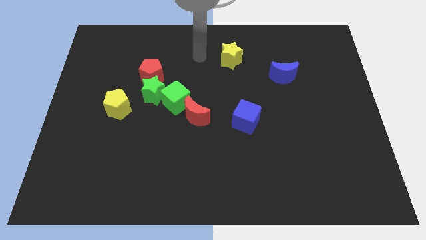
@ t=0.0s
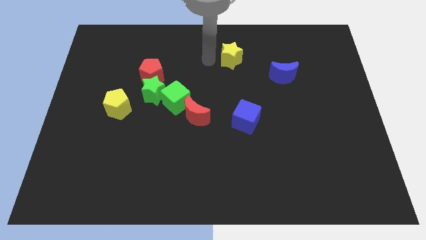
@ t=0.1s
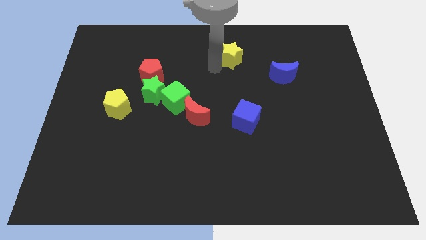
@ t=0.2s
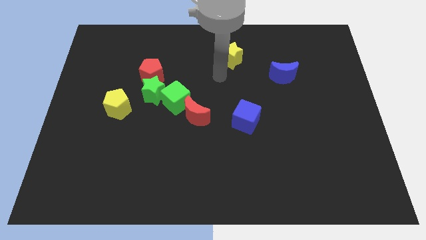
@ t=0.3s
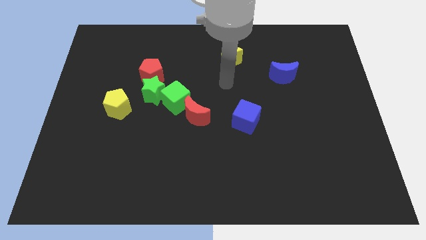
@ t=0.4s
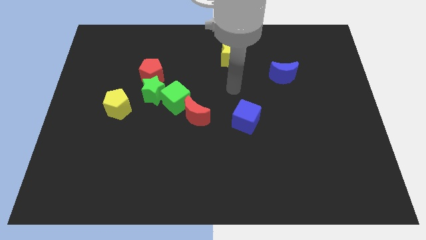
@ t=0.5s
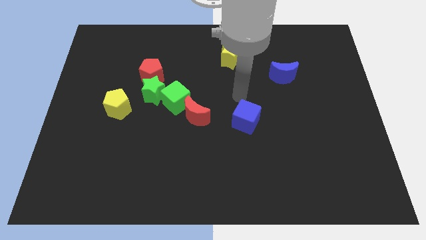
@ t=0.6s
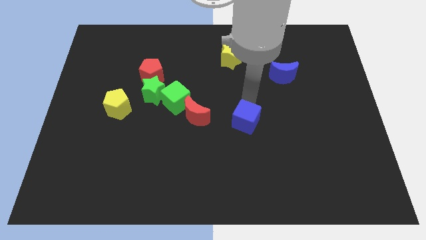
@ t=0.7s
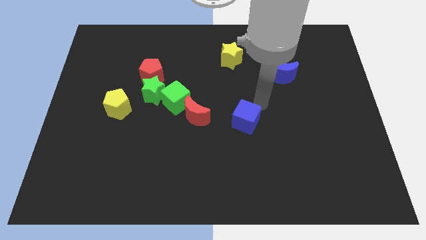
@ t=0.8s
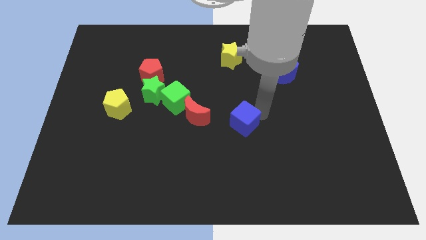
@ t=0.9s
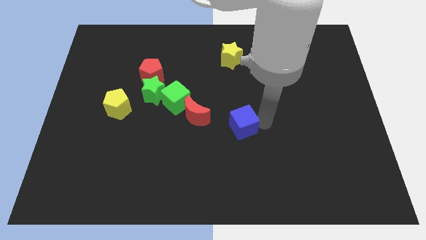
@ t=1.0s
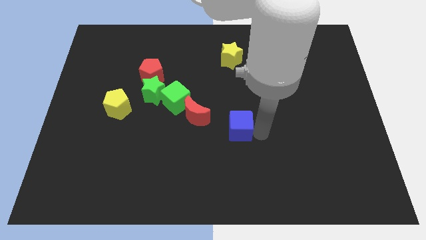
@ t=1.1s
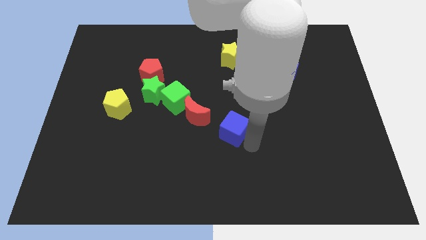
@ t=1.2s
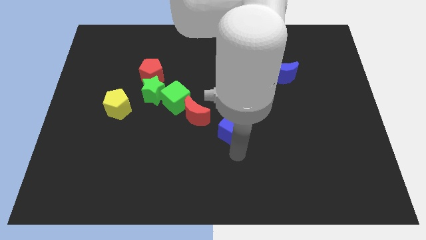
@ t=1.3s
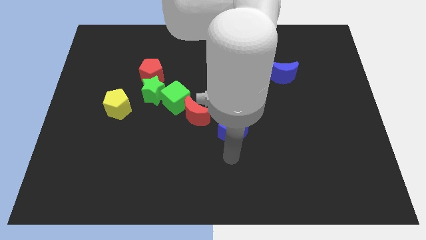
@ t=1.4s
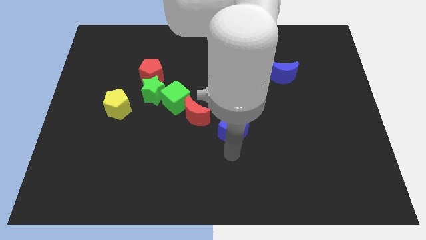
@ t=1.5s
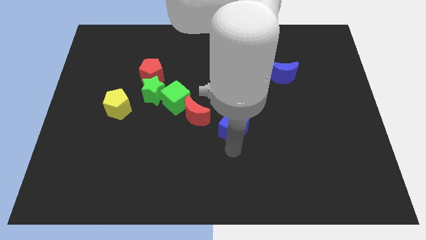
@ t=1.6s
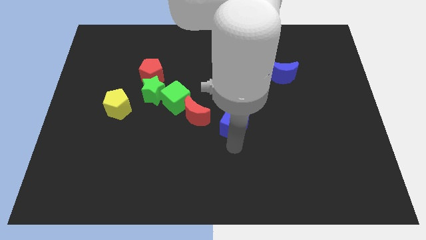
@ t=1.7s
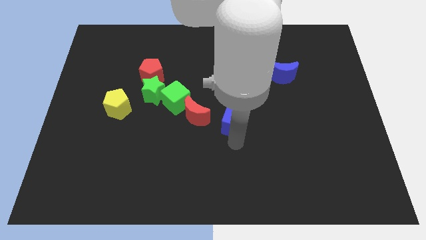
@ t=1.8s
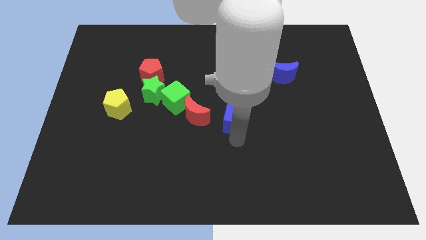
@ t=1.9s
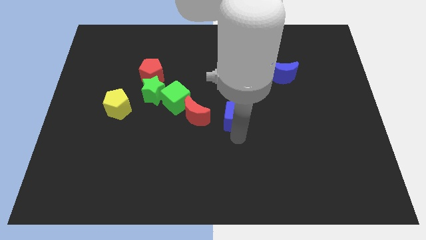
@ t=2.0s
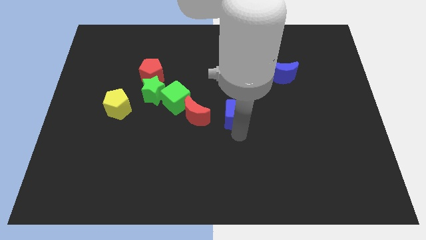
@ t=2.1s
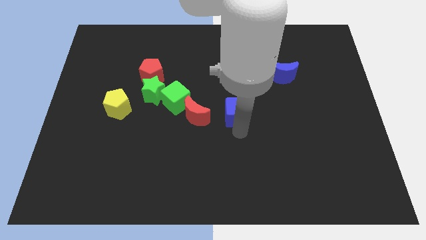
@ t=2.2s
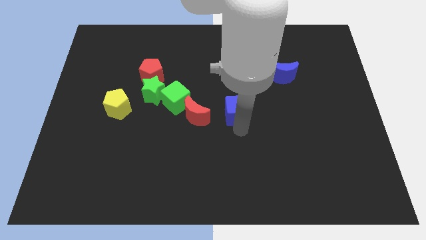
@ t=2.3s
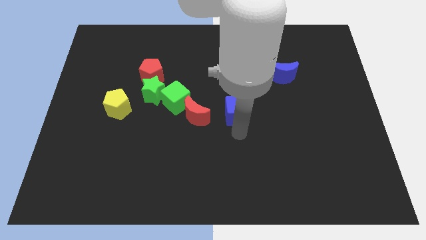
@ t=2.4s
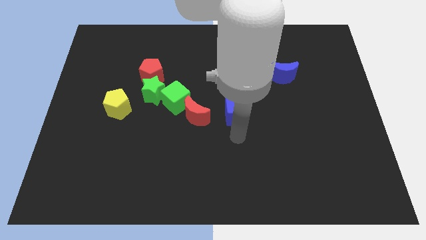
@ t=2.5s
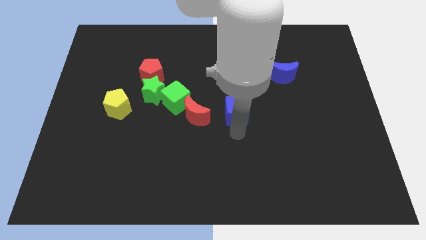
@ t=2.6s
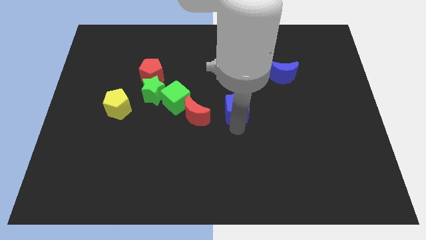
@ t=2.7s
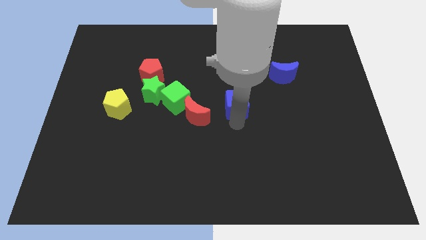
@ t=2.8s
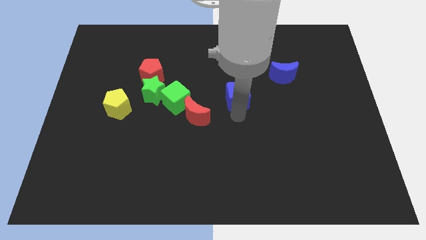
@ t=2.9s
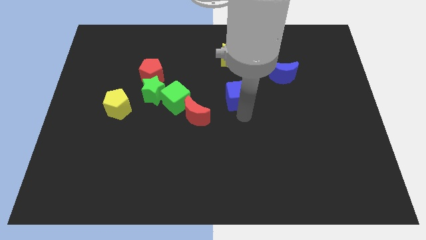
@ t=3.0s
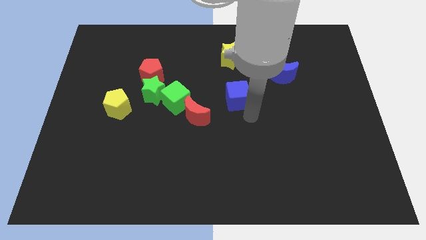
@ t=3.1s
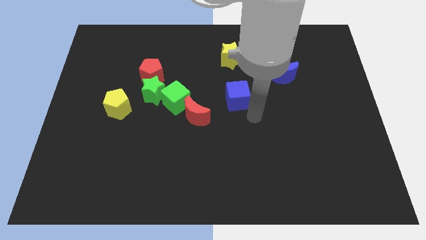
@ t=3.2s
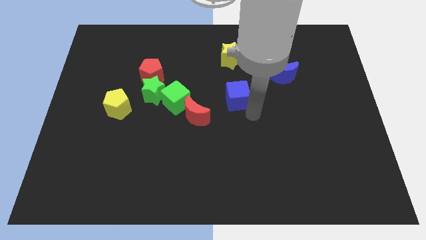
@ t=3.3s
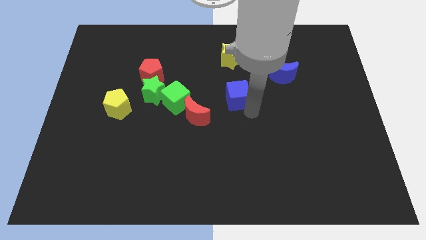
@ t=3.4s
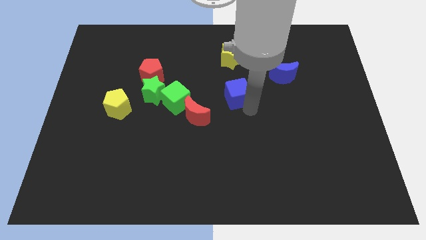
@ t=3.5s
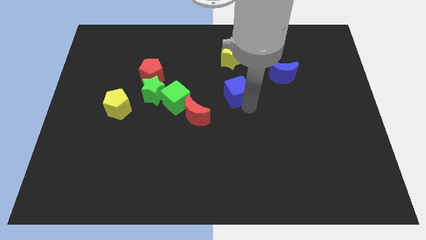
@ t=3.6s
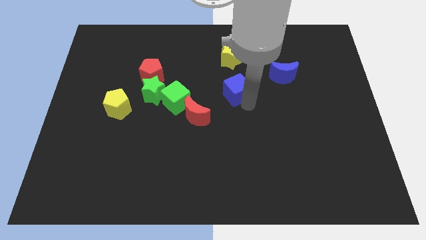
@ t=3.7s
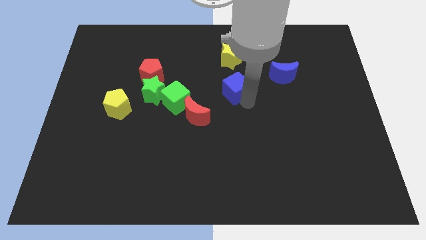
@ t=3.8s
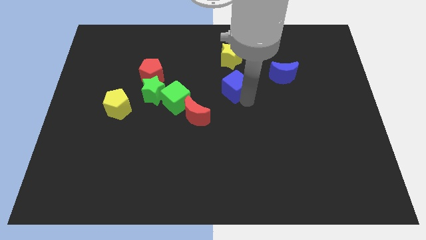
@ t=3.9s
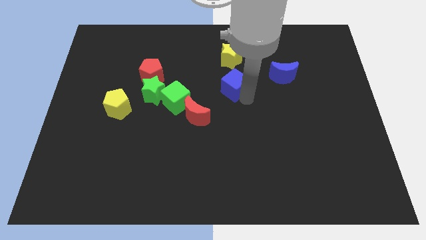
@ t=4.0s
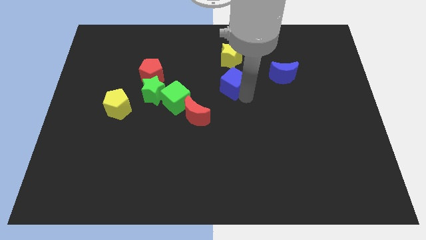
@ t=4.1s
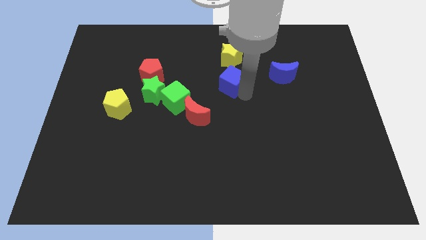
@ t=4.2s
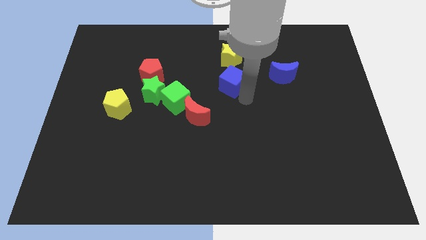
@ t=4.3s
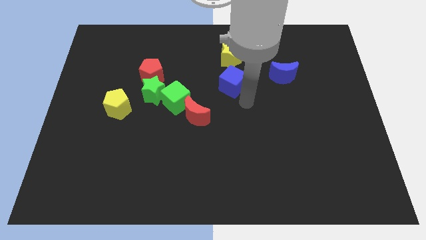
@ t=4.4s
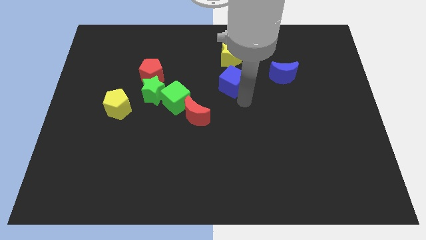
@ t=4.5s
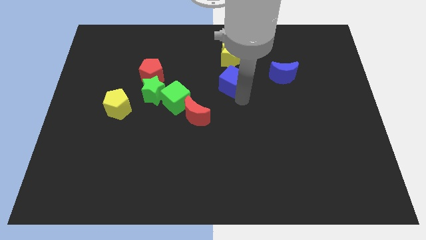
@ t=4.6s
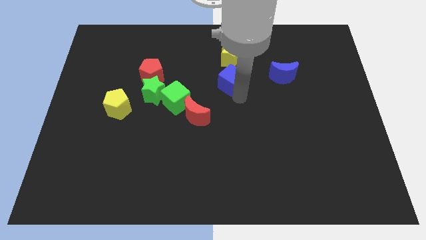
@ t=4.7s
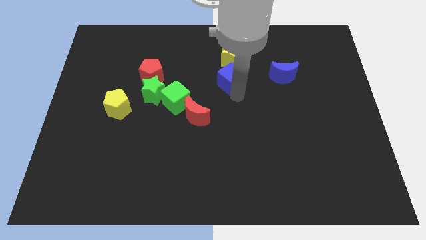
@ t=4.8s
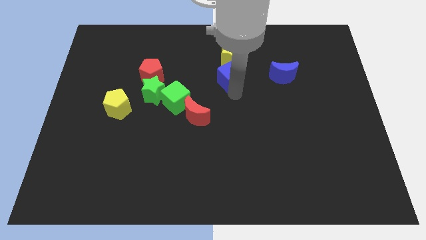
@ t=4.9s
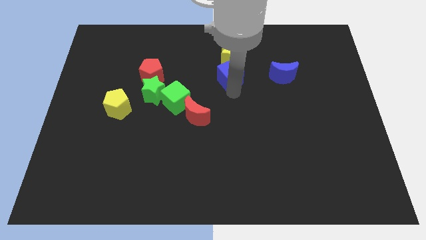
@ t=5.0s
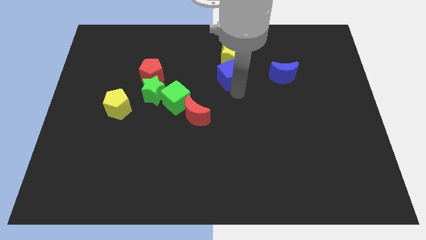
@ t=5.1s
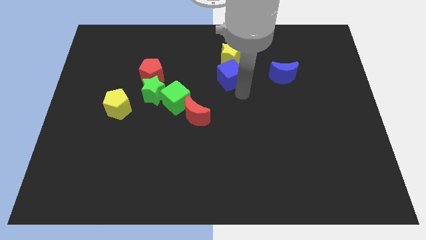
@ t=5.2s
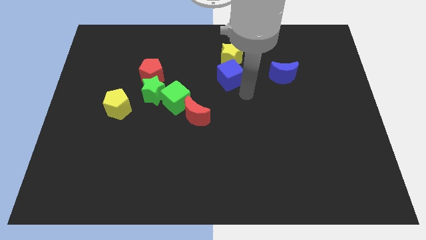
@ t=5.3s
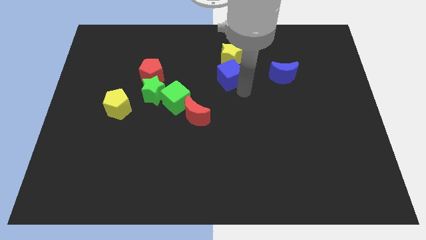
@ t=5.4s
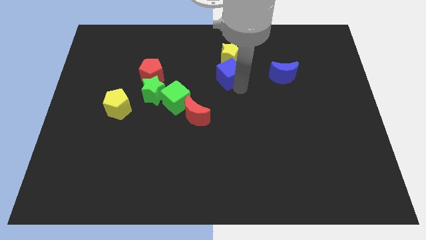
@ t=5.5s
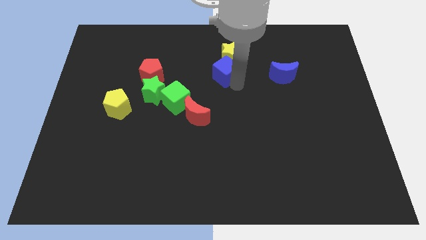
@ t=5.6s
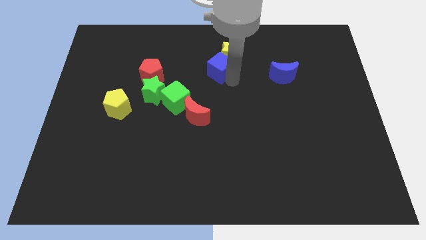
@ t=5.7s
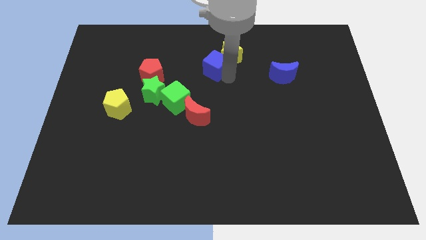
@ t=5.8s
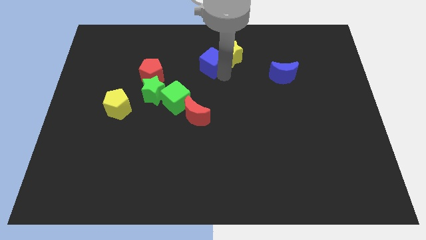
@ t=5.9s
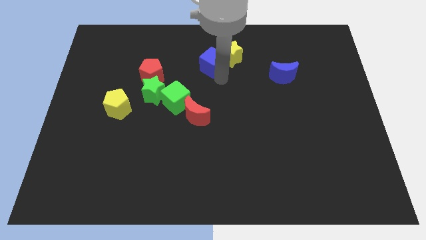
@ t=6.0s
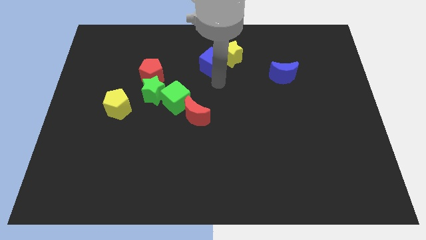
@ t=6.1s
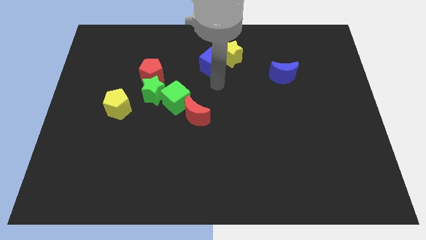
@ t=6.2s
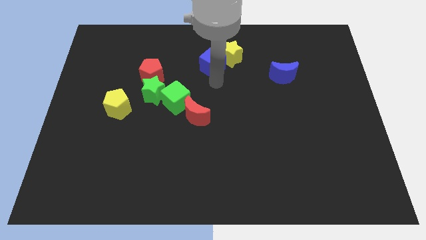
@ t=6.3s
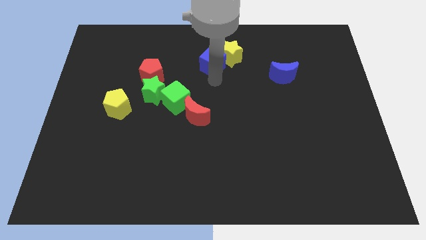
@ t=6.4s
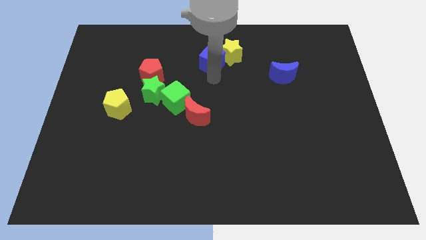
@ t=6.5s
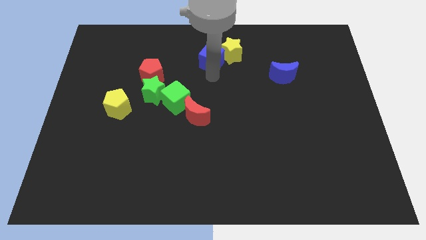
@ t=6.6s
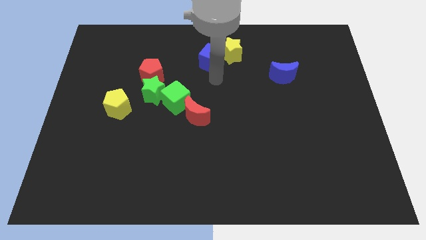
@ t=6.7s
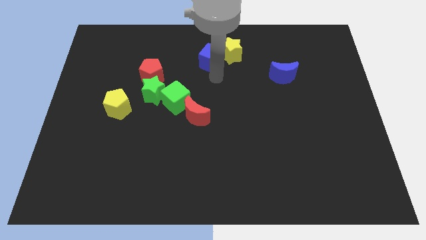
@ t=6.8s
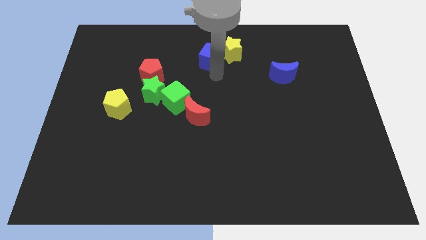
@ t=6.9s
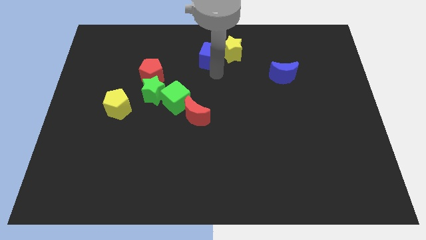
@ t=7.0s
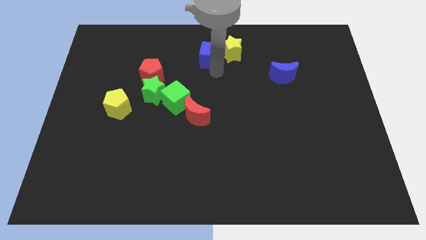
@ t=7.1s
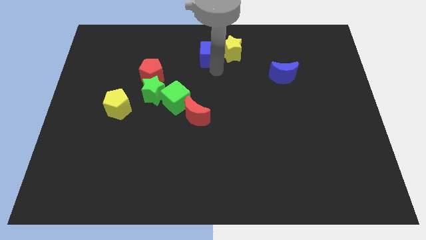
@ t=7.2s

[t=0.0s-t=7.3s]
move the blue cube to the top side
